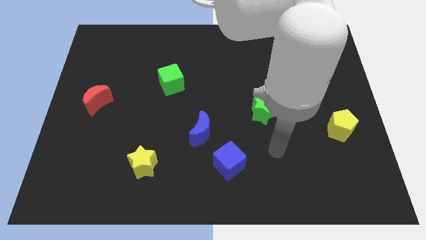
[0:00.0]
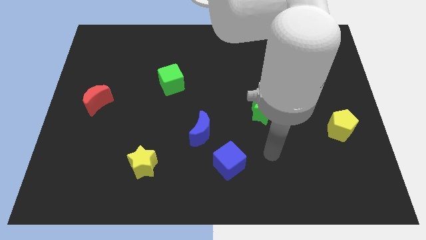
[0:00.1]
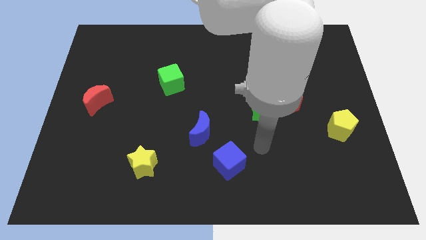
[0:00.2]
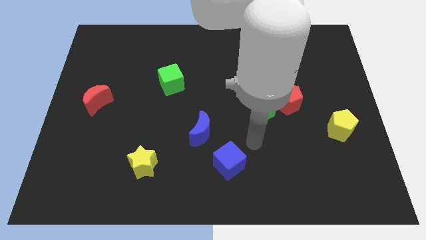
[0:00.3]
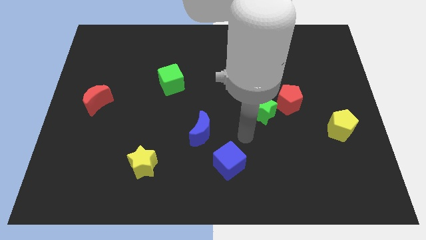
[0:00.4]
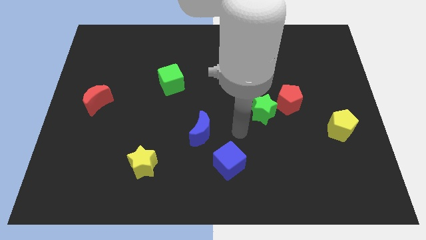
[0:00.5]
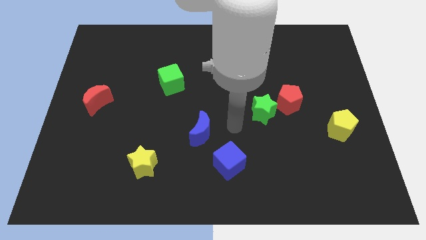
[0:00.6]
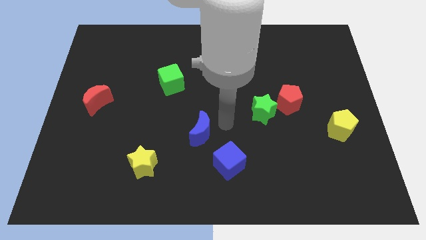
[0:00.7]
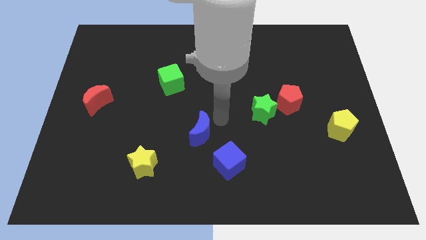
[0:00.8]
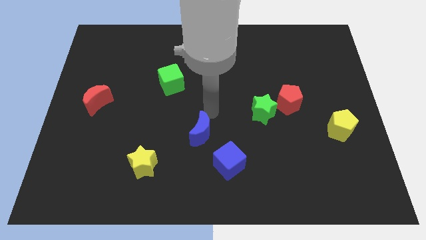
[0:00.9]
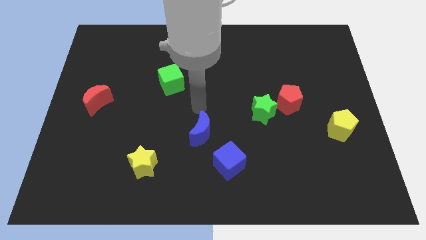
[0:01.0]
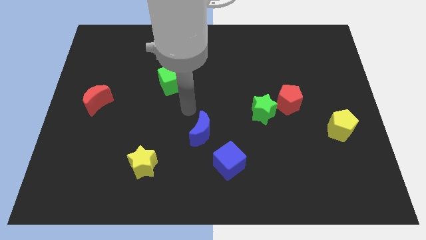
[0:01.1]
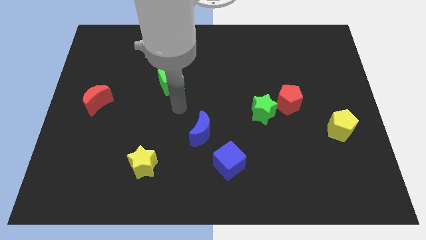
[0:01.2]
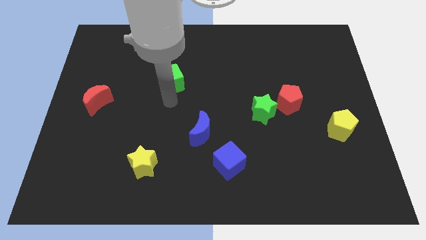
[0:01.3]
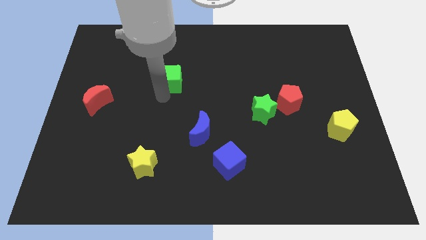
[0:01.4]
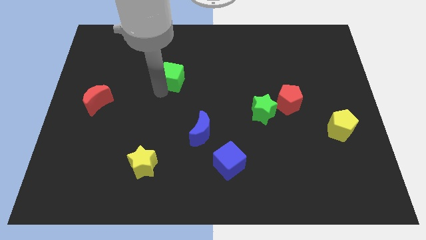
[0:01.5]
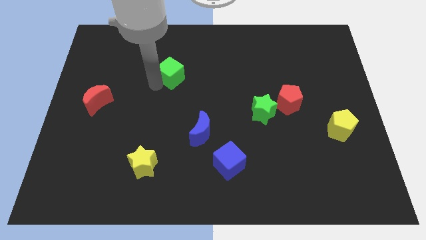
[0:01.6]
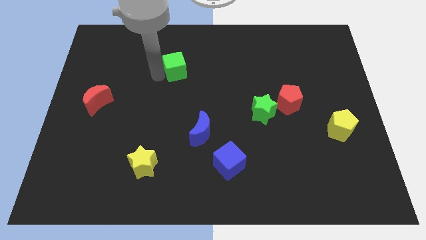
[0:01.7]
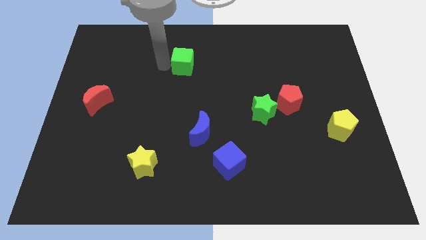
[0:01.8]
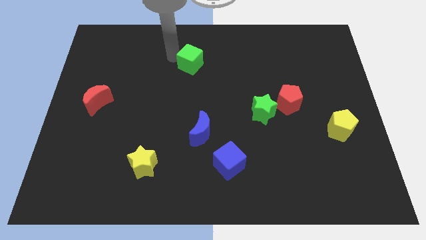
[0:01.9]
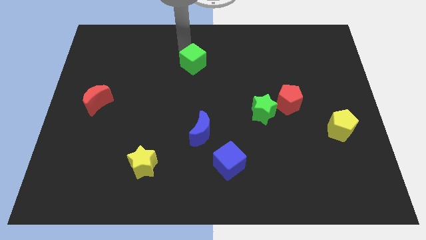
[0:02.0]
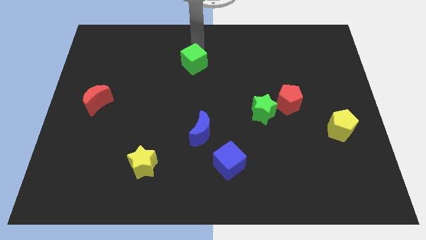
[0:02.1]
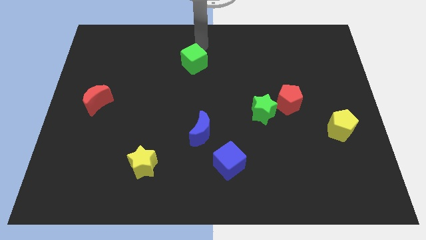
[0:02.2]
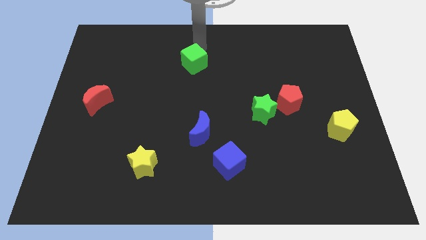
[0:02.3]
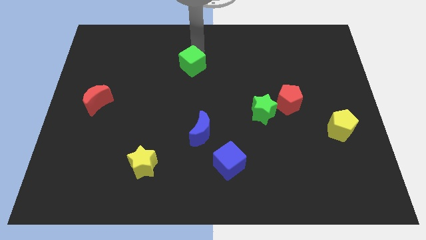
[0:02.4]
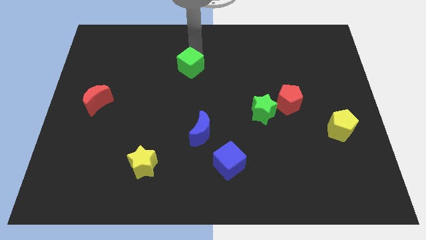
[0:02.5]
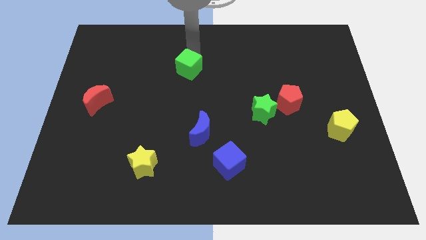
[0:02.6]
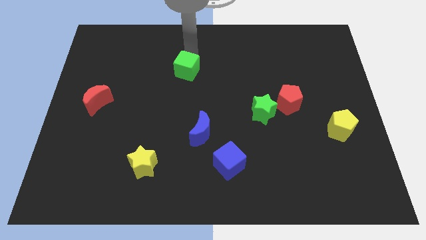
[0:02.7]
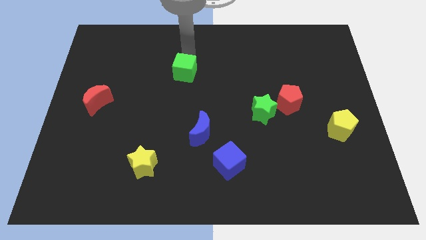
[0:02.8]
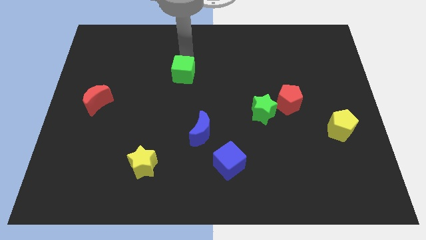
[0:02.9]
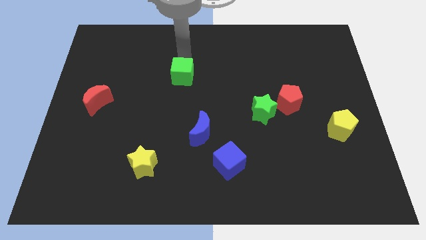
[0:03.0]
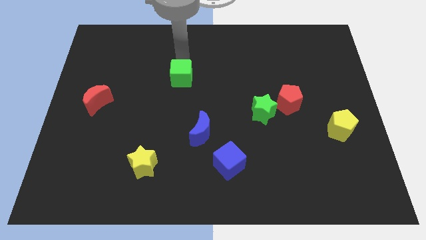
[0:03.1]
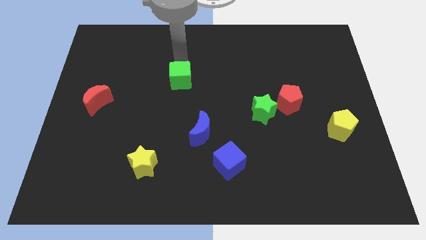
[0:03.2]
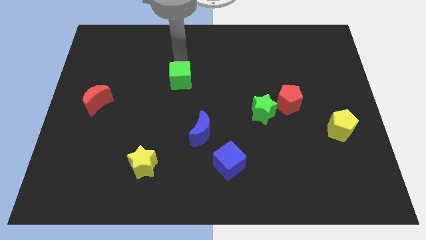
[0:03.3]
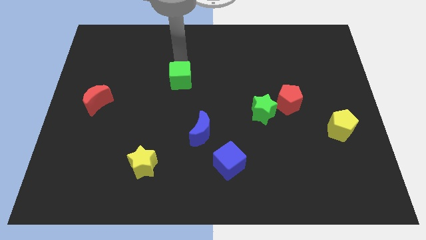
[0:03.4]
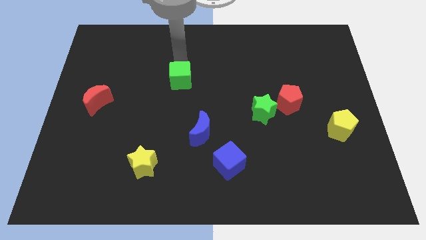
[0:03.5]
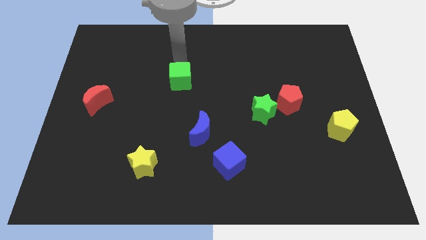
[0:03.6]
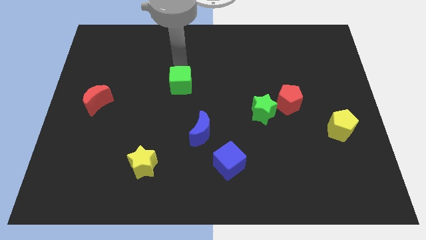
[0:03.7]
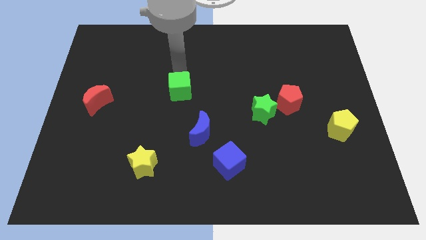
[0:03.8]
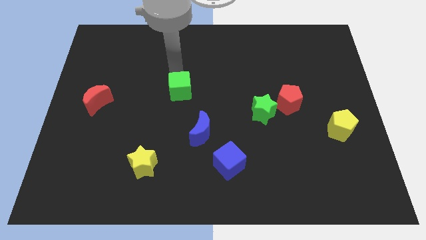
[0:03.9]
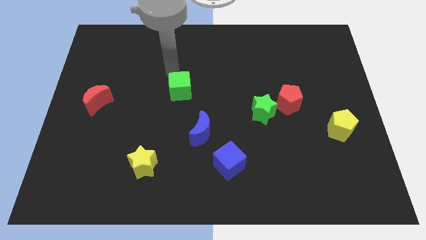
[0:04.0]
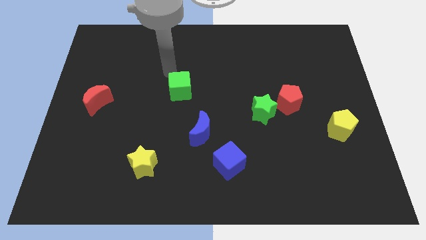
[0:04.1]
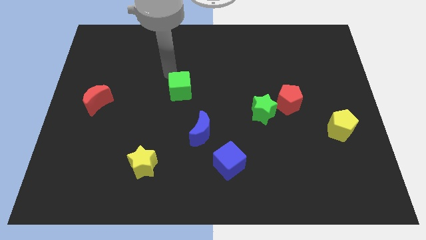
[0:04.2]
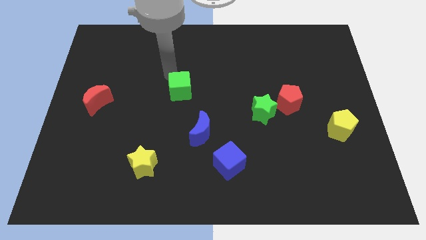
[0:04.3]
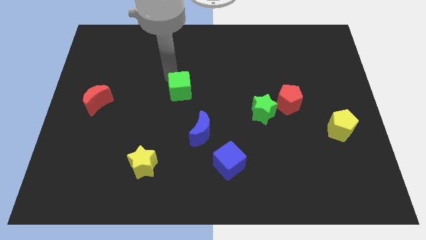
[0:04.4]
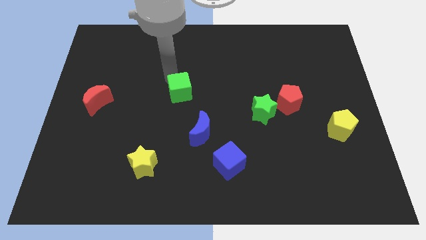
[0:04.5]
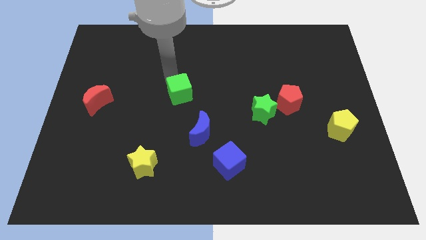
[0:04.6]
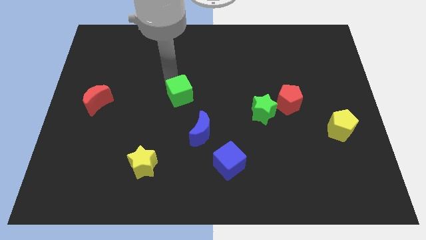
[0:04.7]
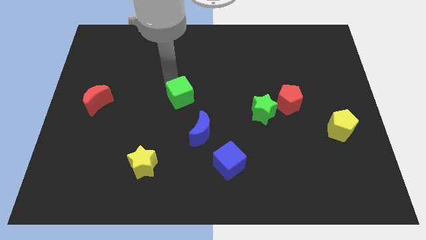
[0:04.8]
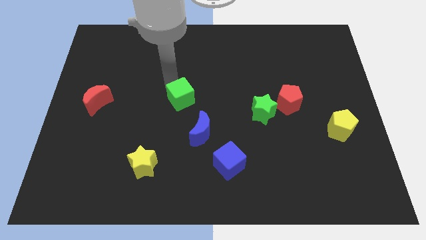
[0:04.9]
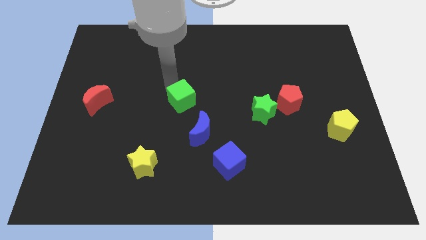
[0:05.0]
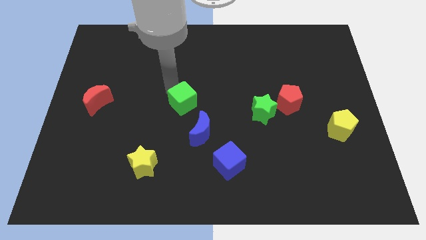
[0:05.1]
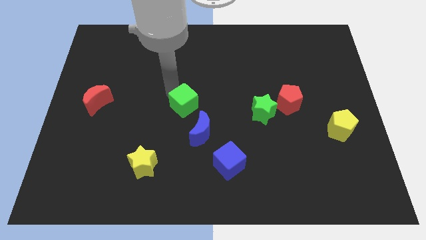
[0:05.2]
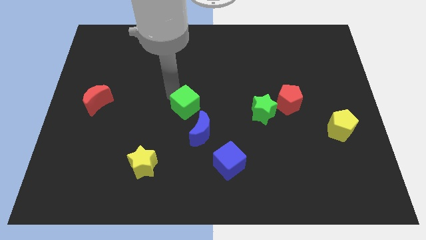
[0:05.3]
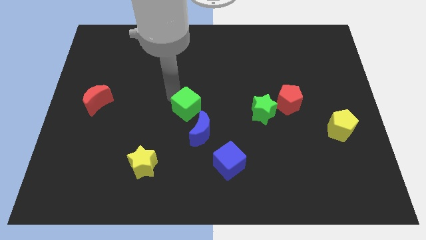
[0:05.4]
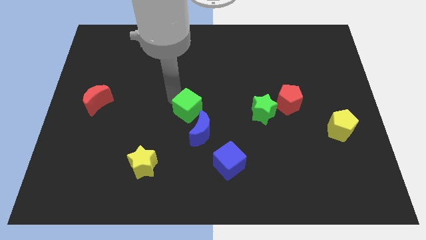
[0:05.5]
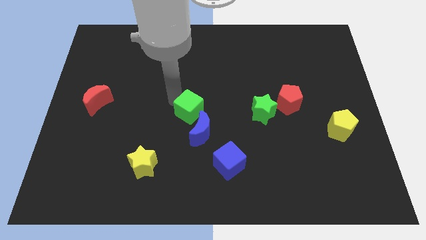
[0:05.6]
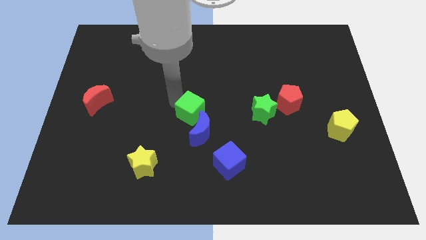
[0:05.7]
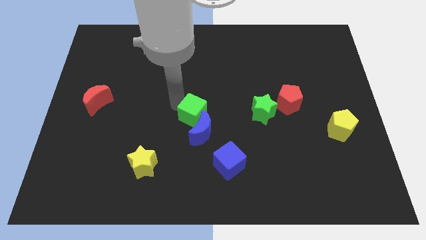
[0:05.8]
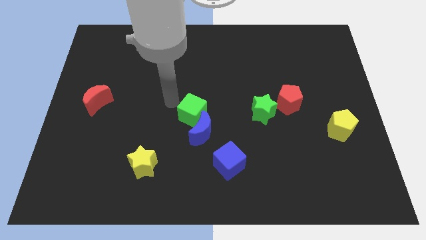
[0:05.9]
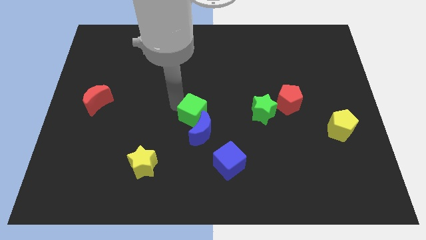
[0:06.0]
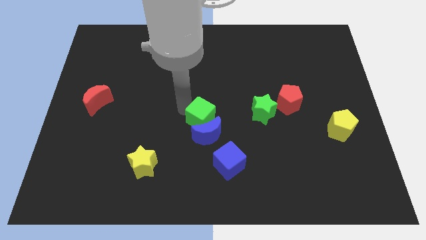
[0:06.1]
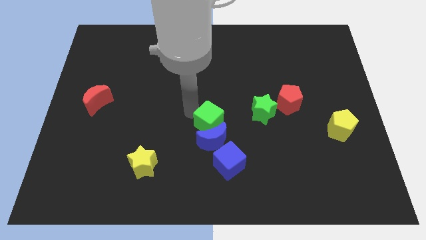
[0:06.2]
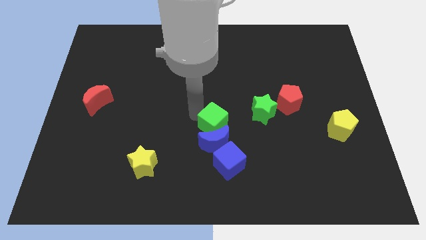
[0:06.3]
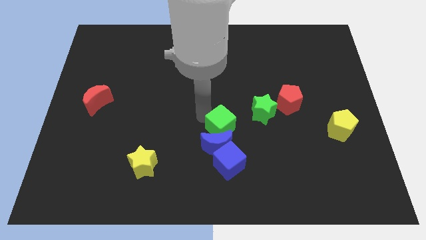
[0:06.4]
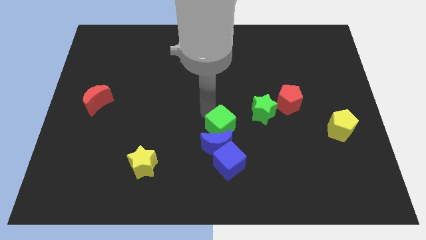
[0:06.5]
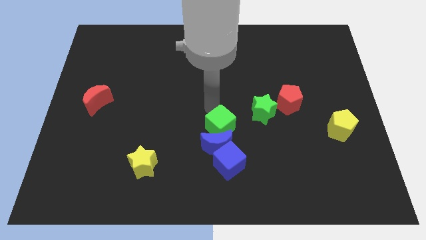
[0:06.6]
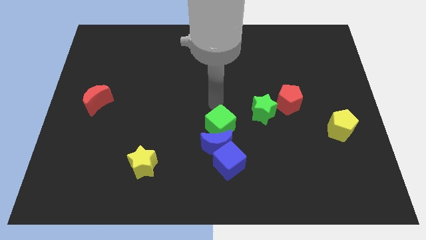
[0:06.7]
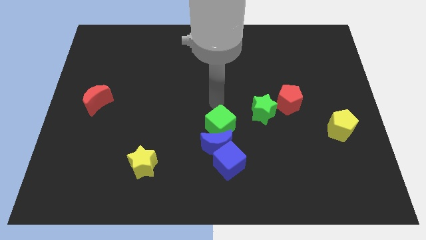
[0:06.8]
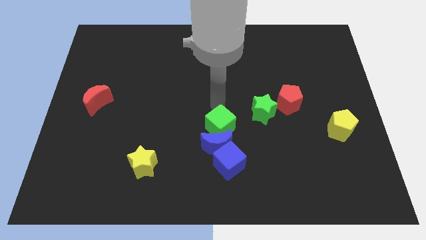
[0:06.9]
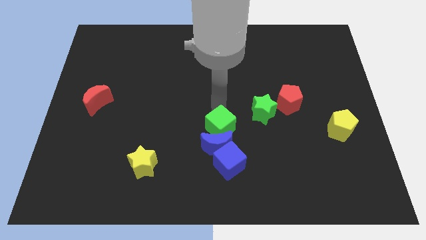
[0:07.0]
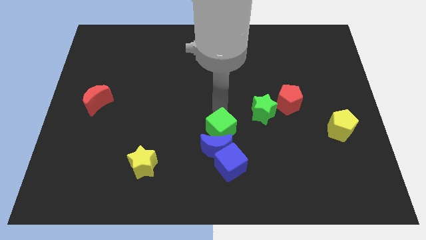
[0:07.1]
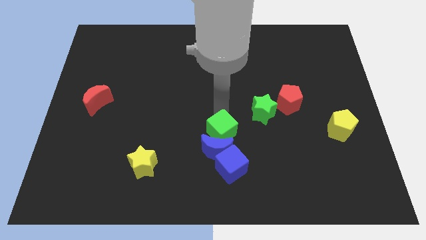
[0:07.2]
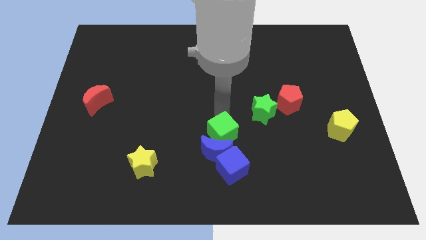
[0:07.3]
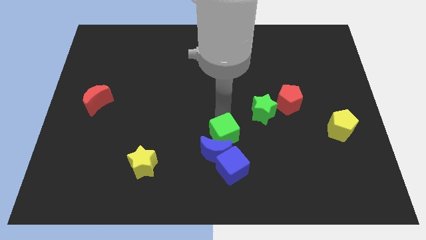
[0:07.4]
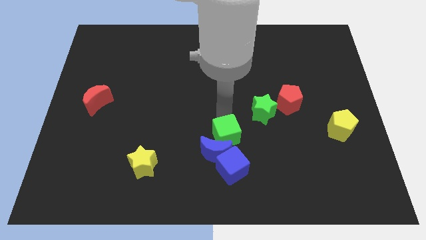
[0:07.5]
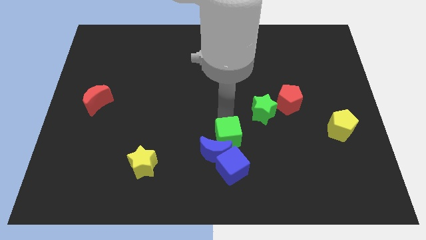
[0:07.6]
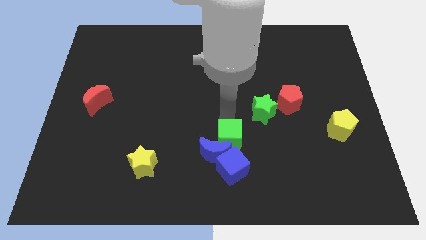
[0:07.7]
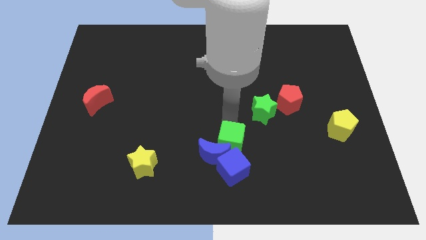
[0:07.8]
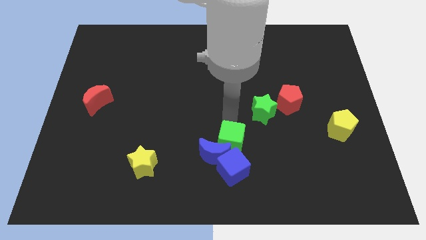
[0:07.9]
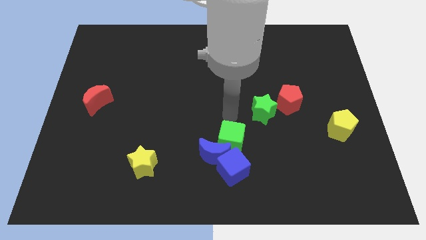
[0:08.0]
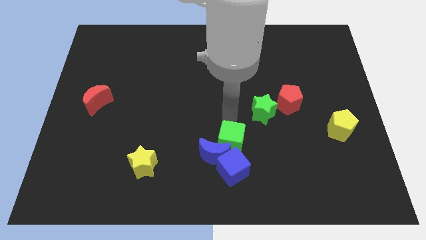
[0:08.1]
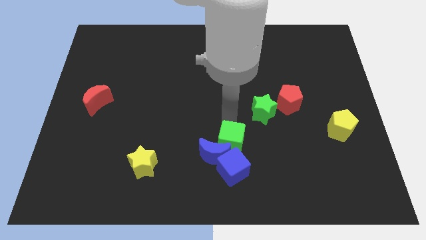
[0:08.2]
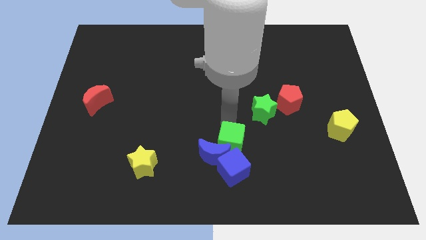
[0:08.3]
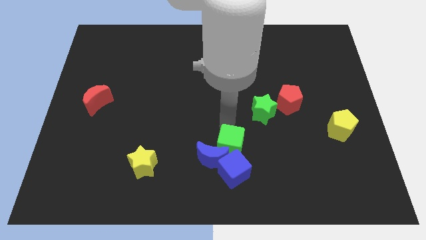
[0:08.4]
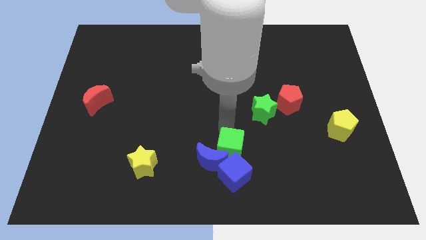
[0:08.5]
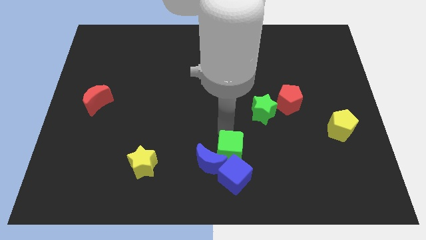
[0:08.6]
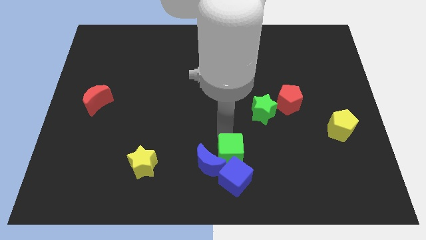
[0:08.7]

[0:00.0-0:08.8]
put the green cube towards the blue cube
